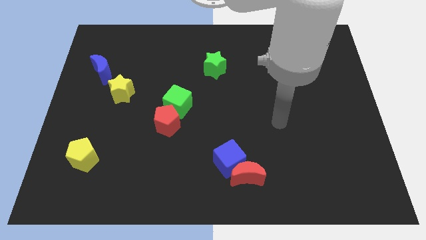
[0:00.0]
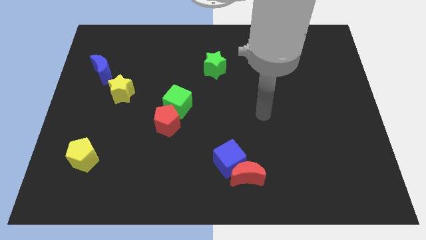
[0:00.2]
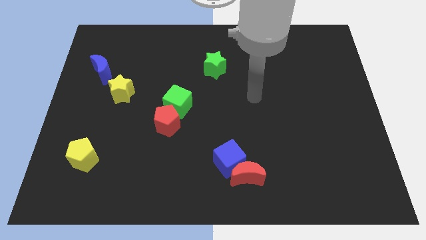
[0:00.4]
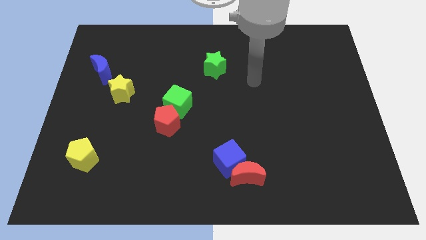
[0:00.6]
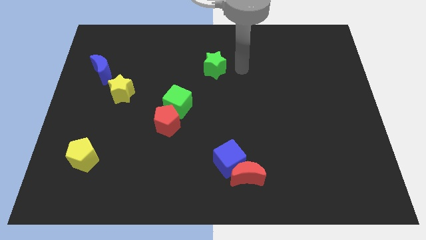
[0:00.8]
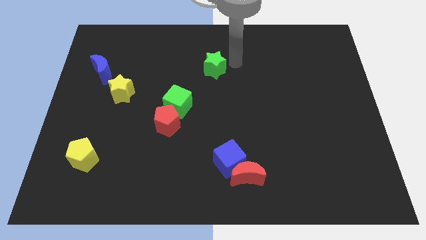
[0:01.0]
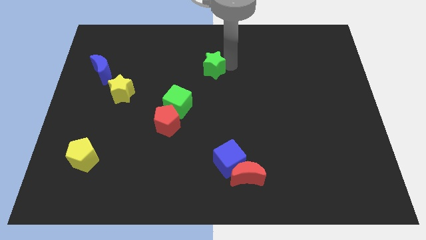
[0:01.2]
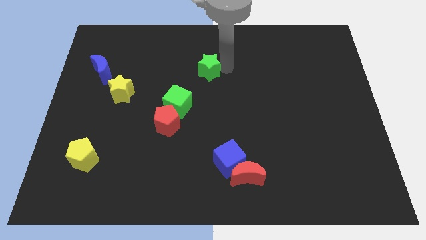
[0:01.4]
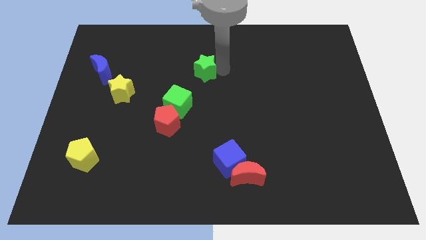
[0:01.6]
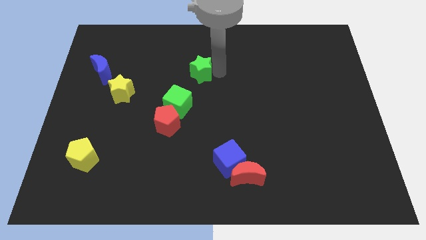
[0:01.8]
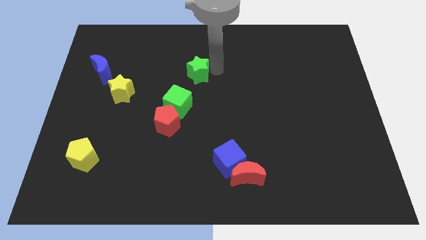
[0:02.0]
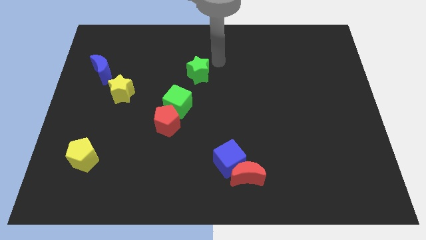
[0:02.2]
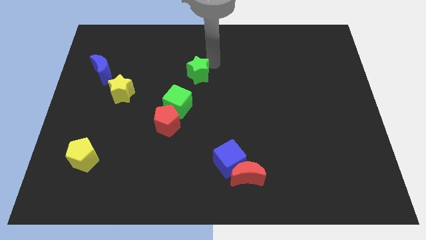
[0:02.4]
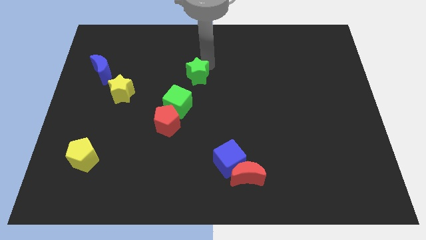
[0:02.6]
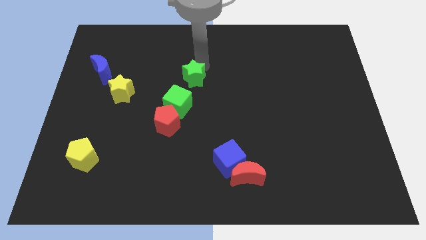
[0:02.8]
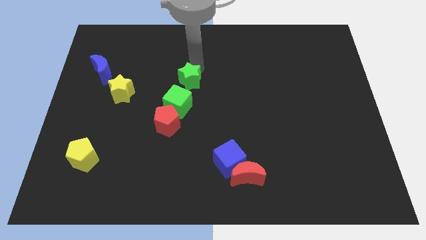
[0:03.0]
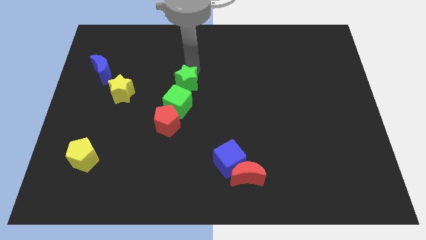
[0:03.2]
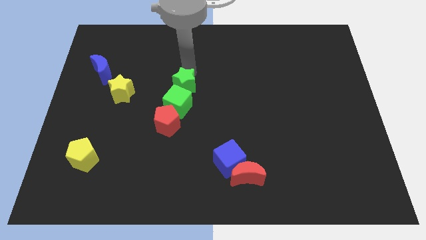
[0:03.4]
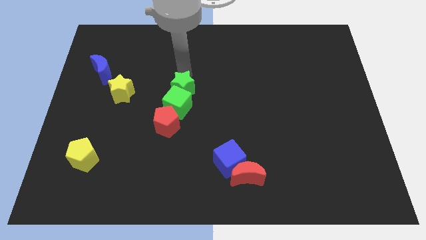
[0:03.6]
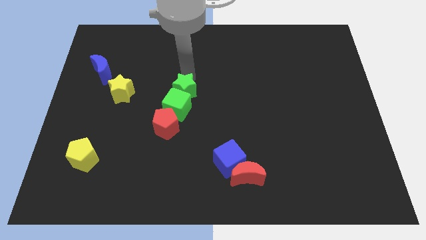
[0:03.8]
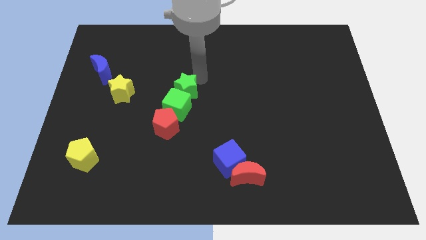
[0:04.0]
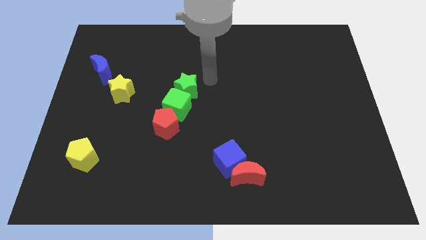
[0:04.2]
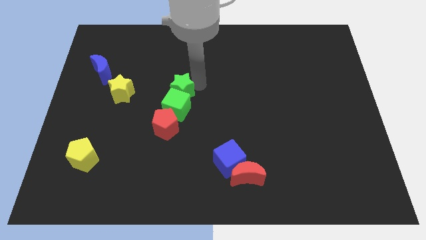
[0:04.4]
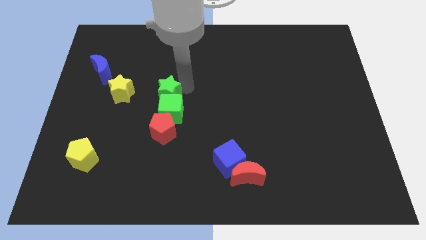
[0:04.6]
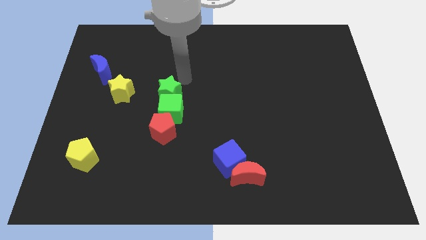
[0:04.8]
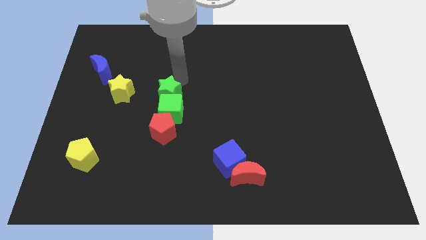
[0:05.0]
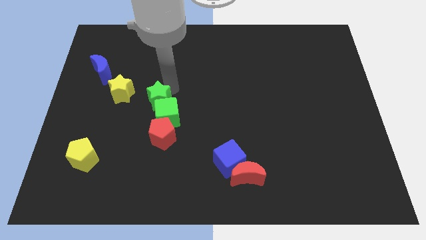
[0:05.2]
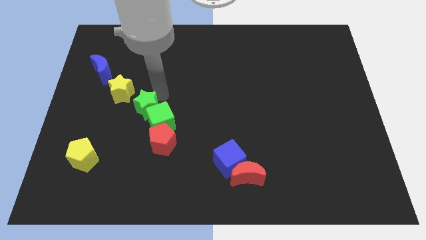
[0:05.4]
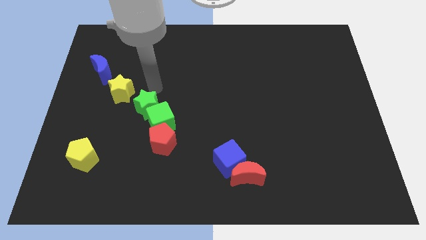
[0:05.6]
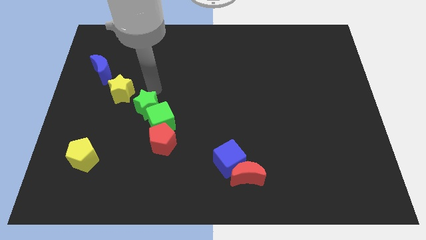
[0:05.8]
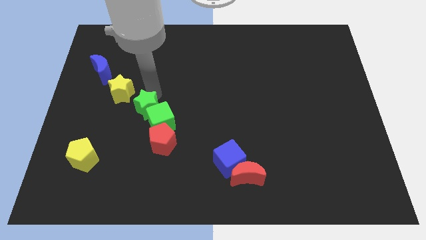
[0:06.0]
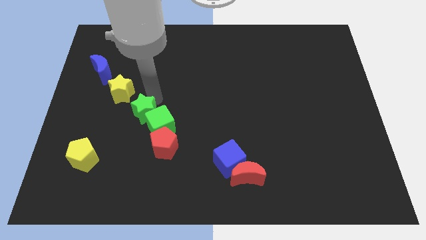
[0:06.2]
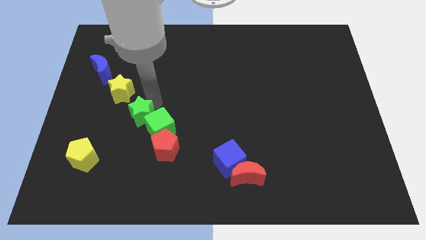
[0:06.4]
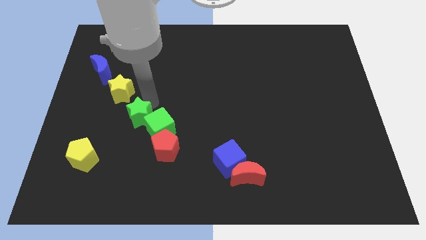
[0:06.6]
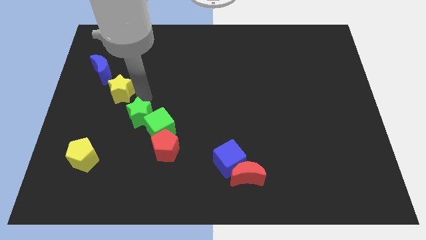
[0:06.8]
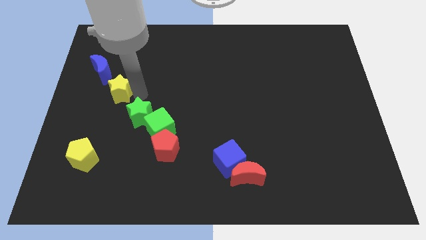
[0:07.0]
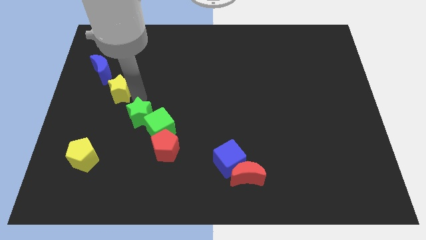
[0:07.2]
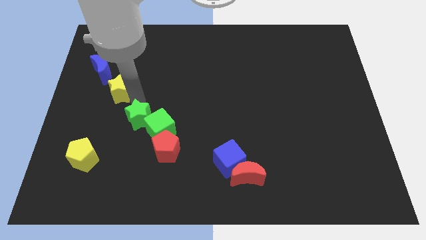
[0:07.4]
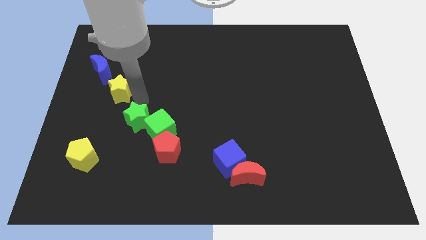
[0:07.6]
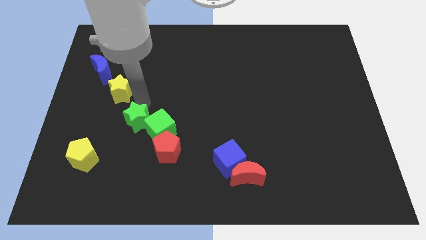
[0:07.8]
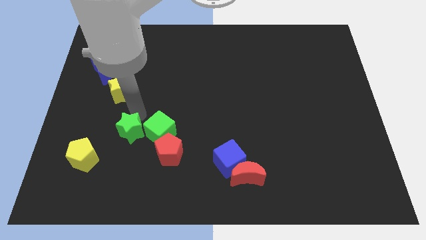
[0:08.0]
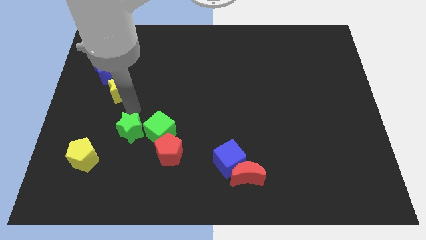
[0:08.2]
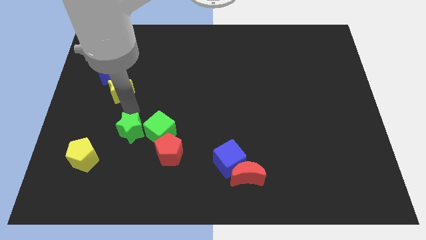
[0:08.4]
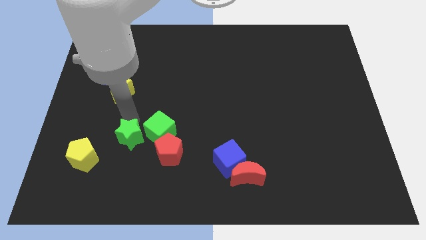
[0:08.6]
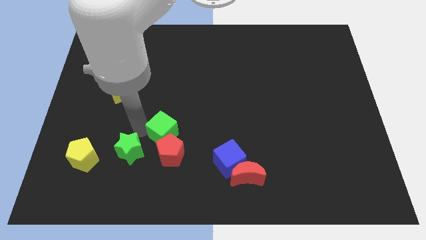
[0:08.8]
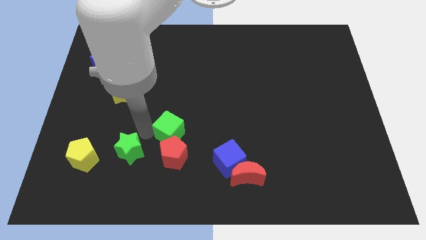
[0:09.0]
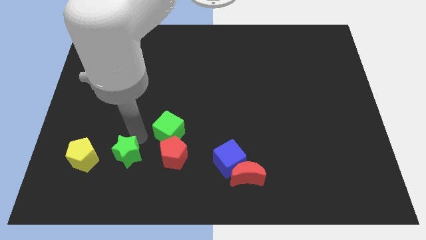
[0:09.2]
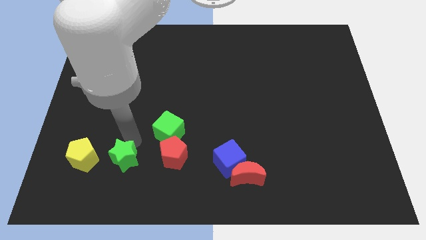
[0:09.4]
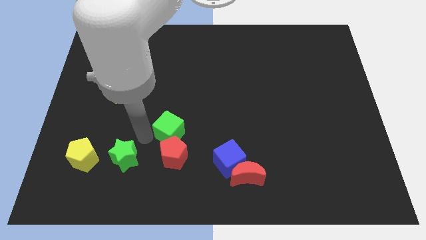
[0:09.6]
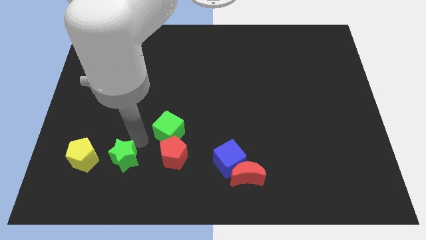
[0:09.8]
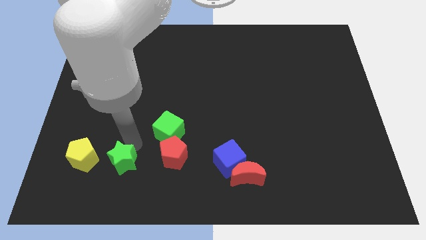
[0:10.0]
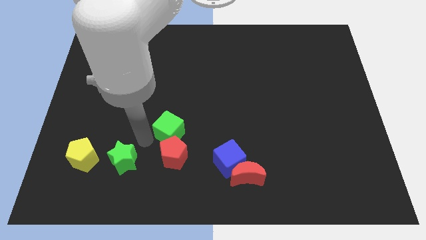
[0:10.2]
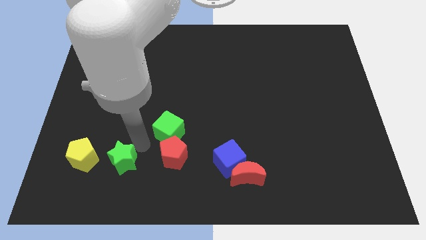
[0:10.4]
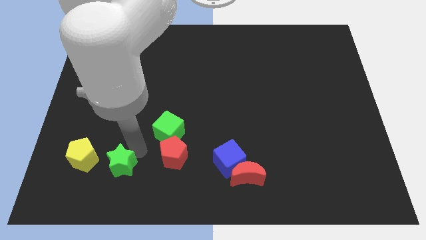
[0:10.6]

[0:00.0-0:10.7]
move the green star diagonally down and to the right of the yellow pentagon

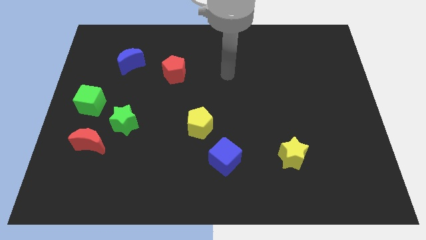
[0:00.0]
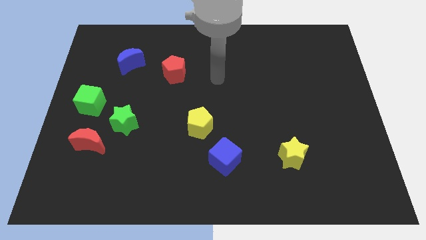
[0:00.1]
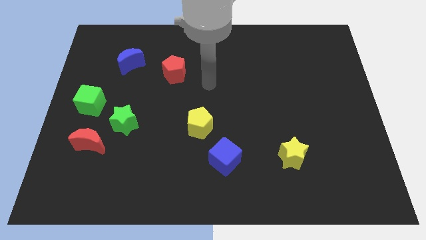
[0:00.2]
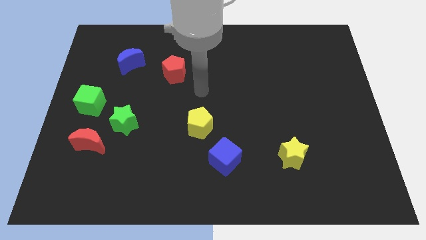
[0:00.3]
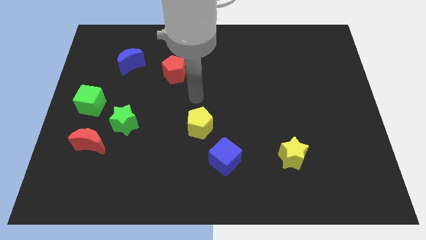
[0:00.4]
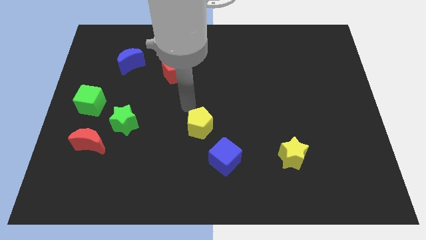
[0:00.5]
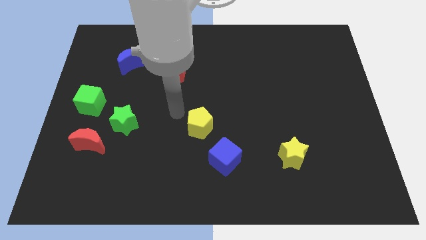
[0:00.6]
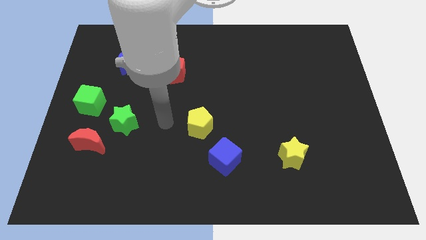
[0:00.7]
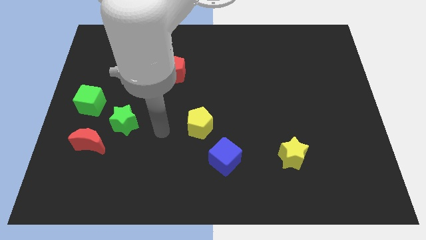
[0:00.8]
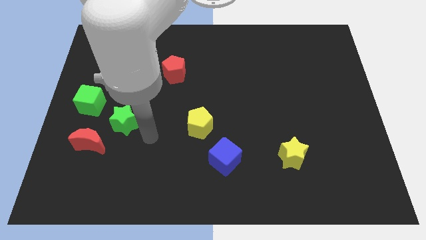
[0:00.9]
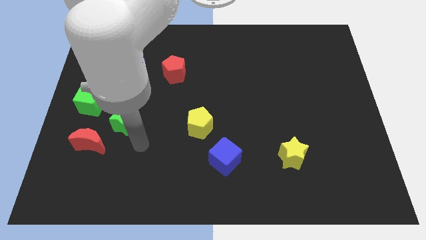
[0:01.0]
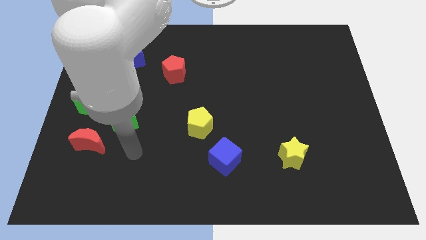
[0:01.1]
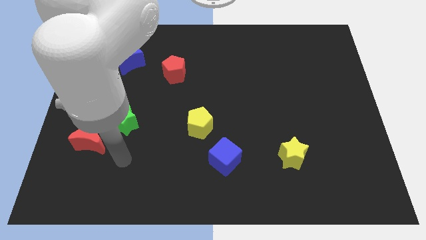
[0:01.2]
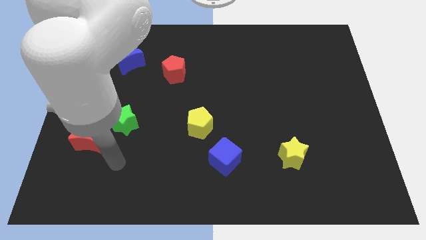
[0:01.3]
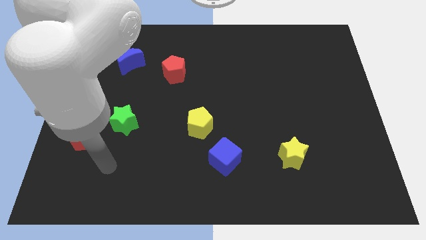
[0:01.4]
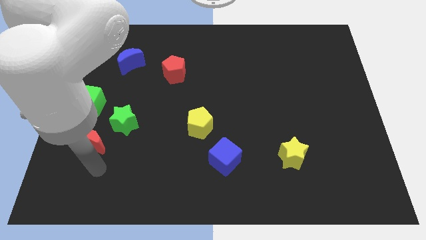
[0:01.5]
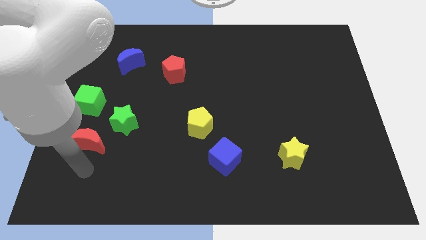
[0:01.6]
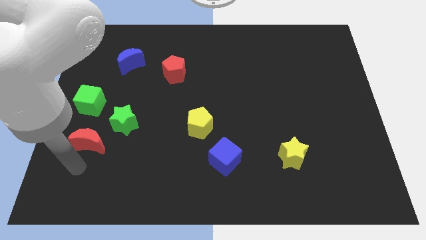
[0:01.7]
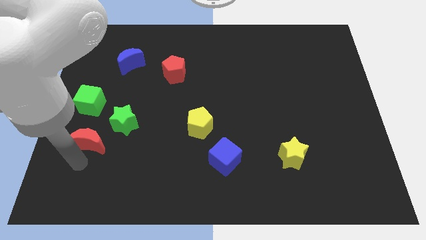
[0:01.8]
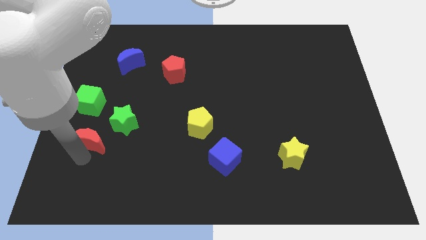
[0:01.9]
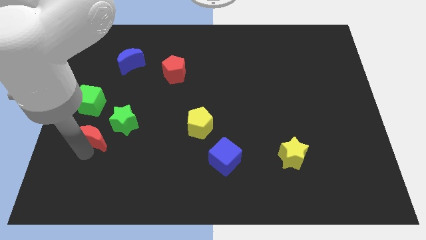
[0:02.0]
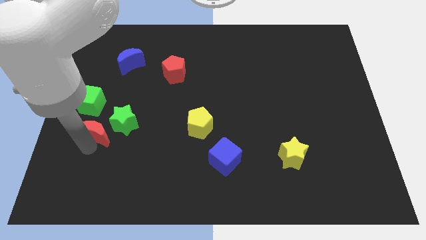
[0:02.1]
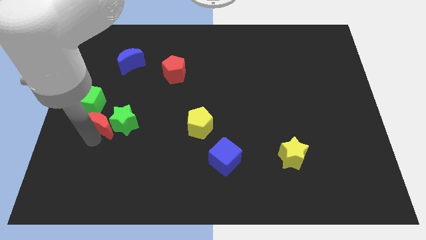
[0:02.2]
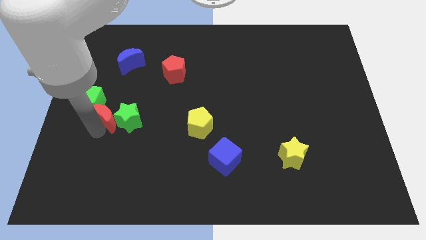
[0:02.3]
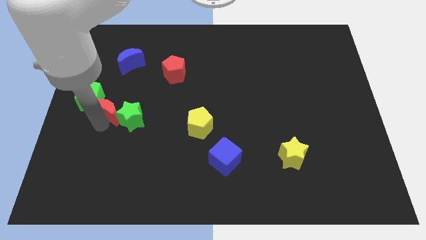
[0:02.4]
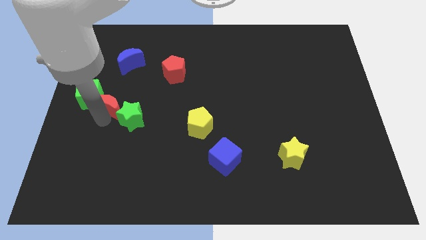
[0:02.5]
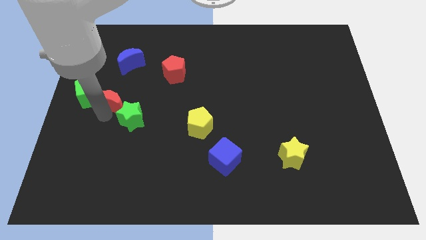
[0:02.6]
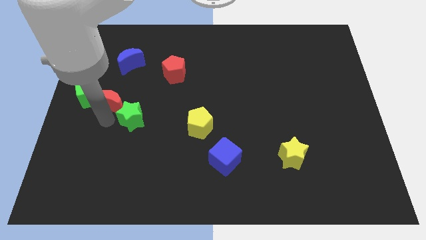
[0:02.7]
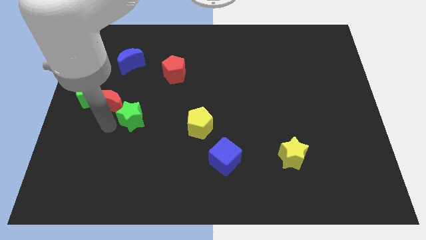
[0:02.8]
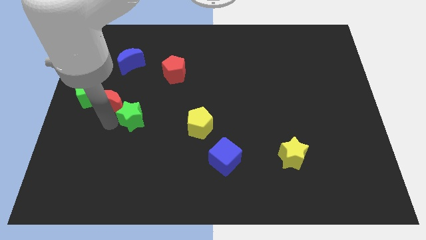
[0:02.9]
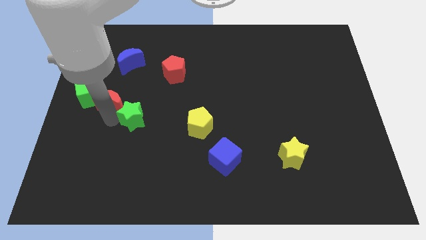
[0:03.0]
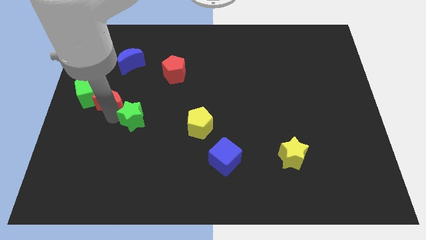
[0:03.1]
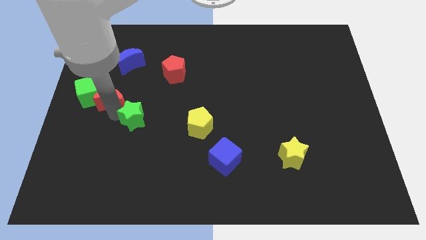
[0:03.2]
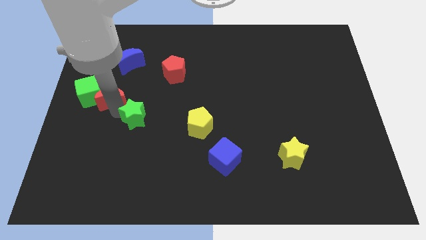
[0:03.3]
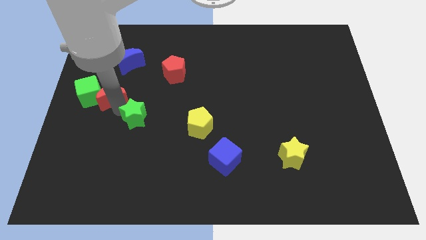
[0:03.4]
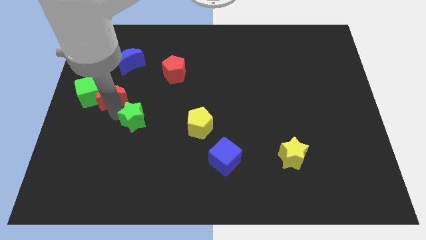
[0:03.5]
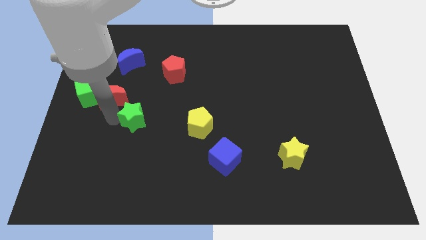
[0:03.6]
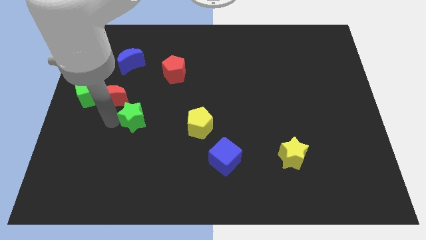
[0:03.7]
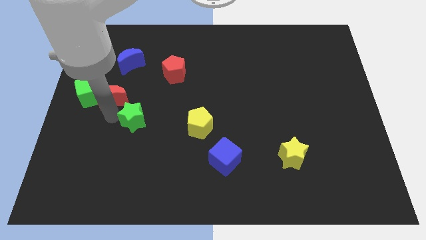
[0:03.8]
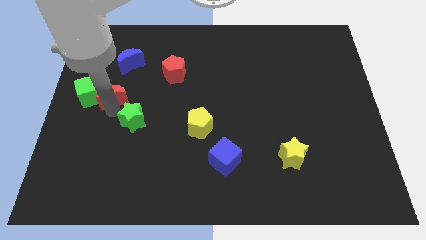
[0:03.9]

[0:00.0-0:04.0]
push the red moon diagonally up and to the right of the green cube
